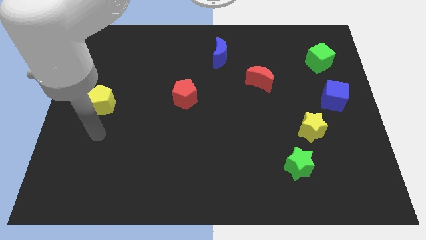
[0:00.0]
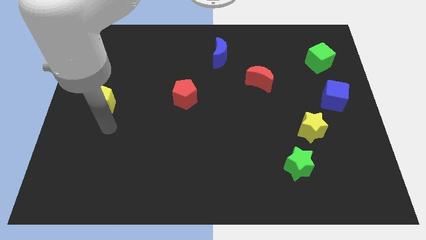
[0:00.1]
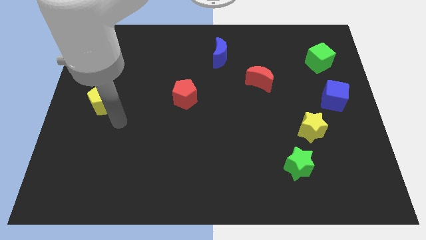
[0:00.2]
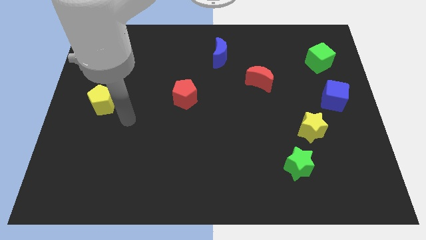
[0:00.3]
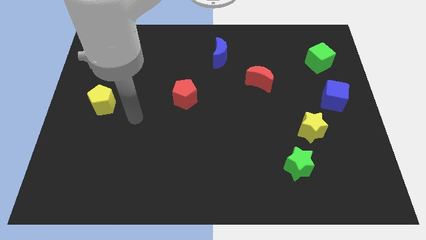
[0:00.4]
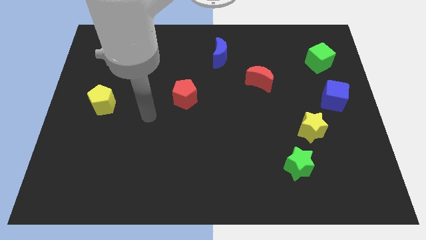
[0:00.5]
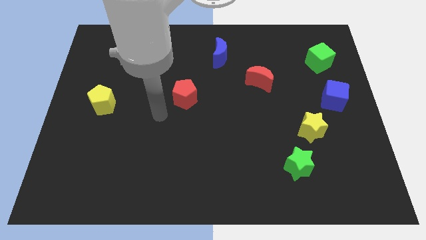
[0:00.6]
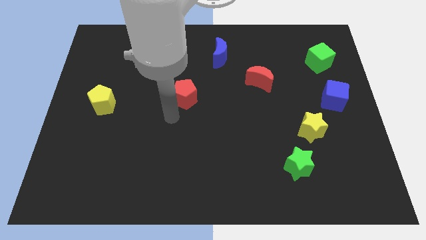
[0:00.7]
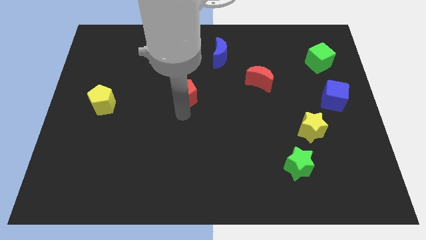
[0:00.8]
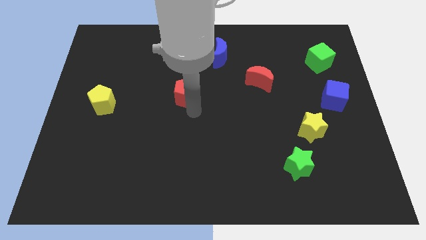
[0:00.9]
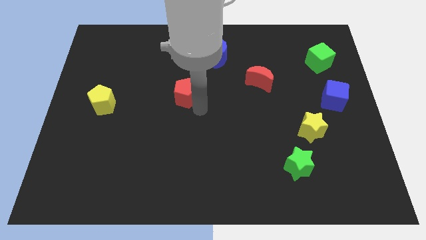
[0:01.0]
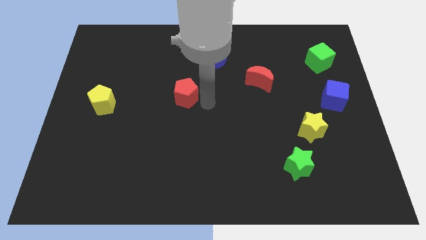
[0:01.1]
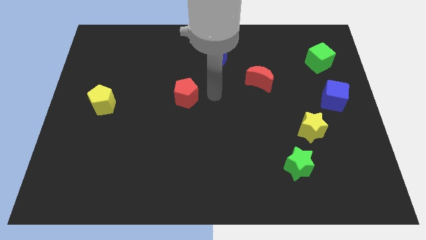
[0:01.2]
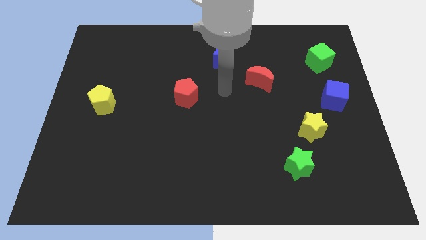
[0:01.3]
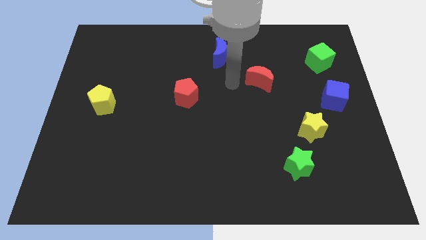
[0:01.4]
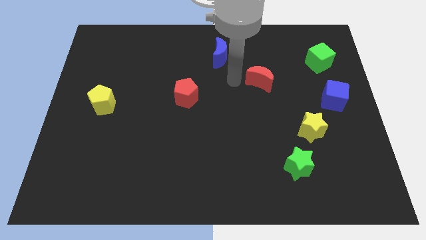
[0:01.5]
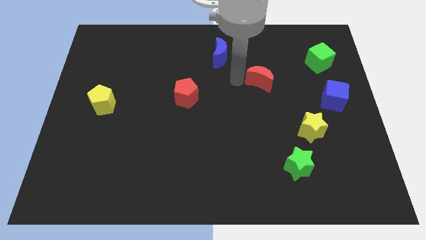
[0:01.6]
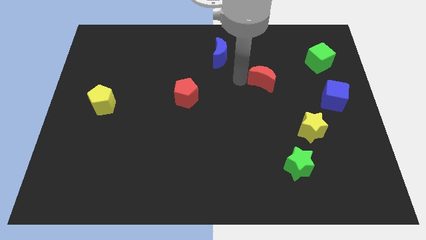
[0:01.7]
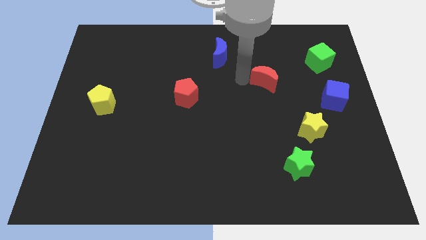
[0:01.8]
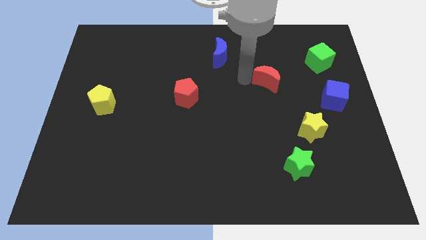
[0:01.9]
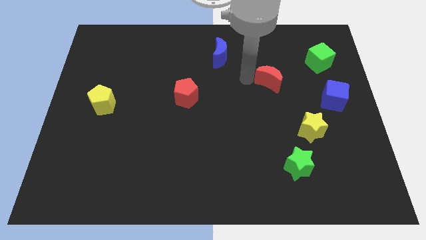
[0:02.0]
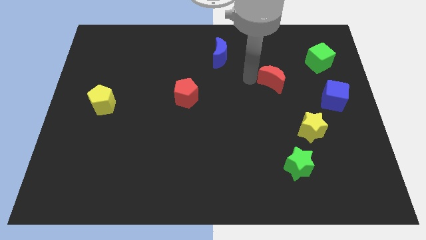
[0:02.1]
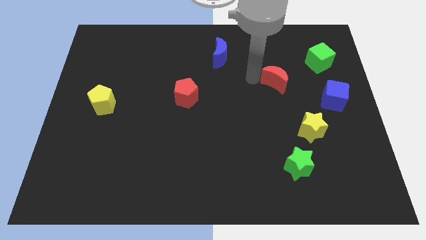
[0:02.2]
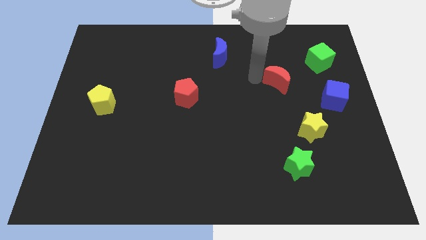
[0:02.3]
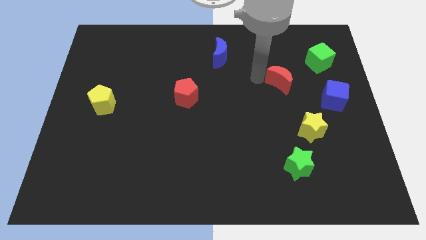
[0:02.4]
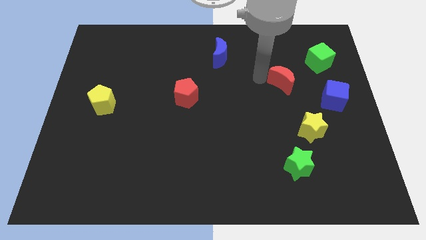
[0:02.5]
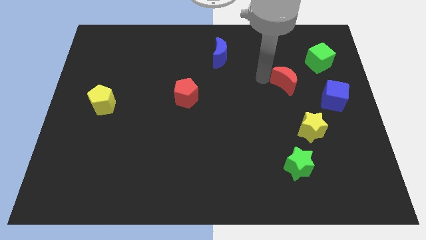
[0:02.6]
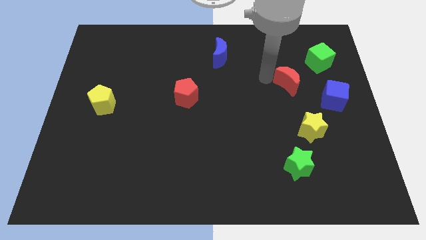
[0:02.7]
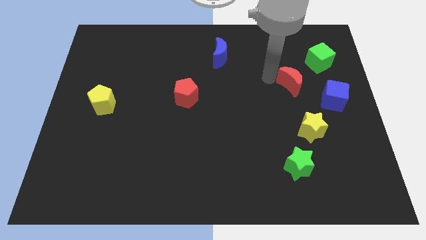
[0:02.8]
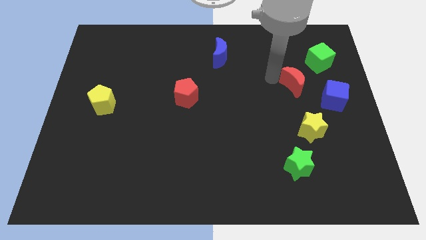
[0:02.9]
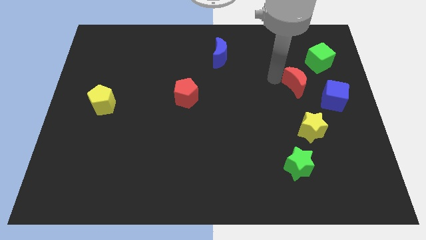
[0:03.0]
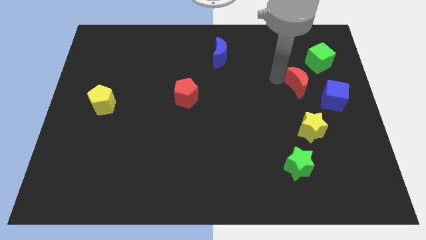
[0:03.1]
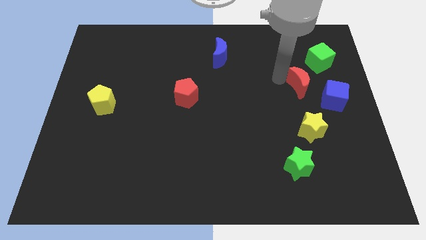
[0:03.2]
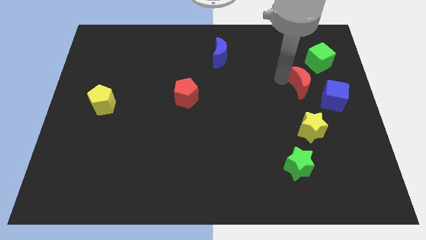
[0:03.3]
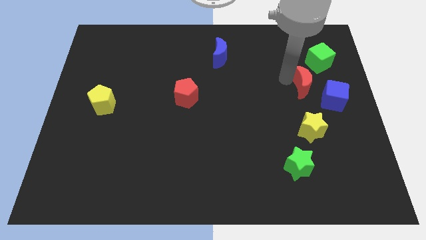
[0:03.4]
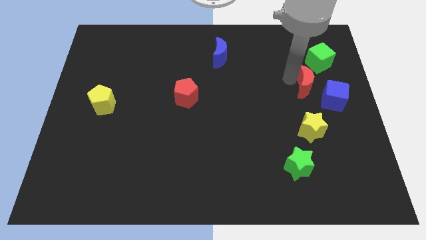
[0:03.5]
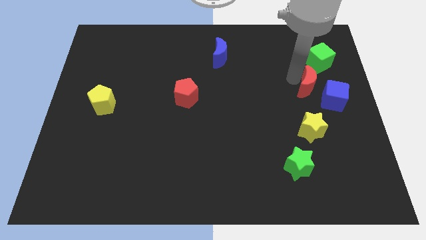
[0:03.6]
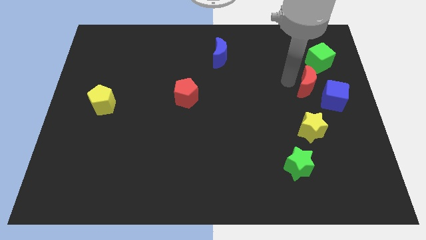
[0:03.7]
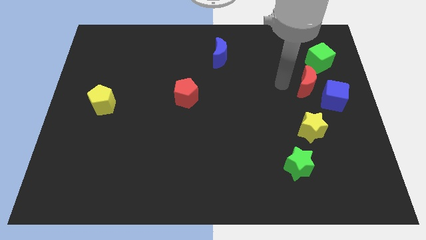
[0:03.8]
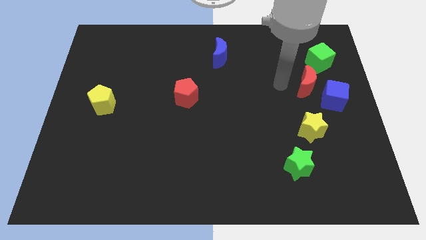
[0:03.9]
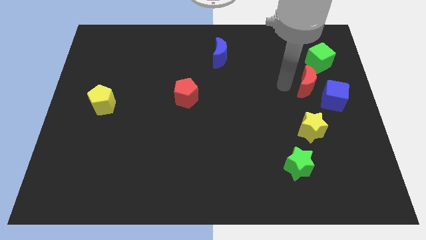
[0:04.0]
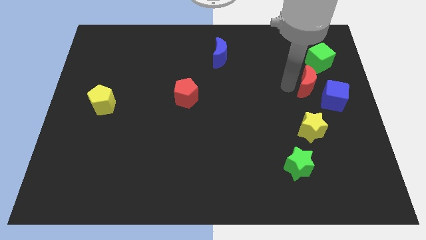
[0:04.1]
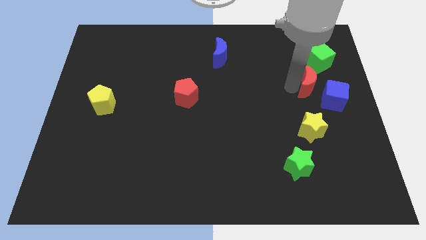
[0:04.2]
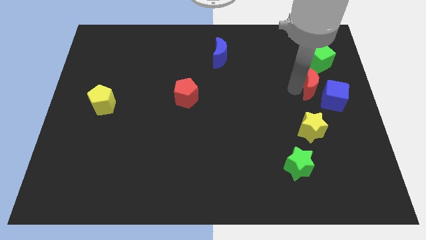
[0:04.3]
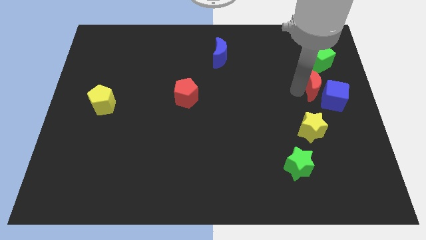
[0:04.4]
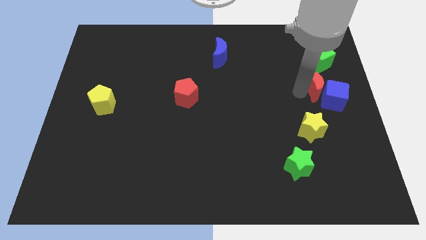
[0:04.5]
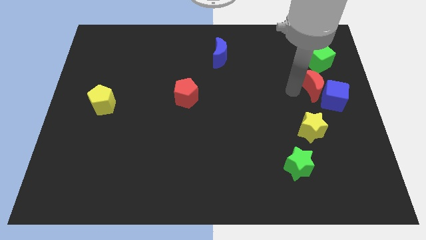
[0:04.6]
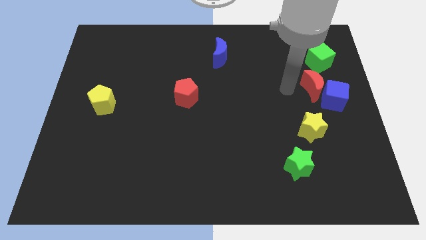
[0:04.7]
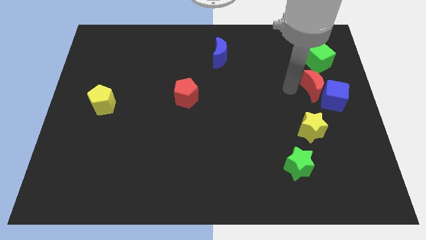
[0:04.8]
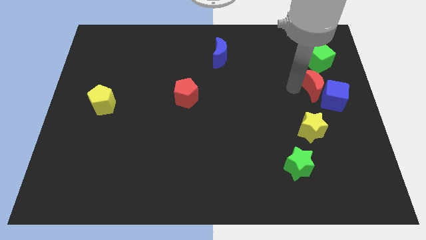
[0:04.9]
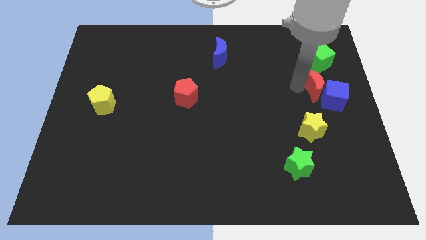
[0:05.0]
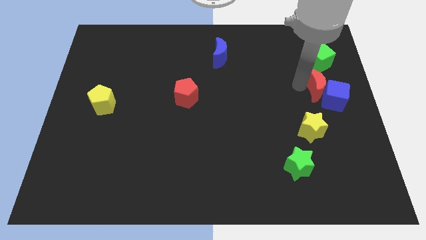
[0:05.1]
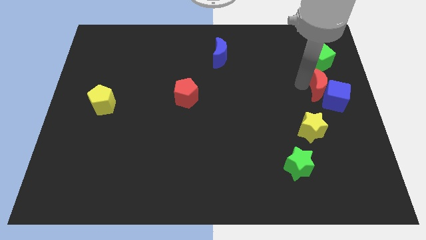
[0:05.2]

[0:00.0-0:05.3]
slide the red moon to the center right

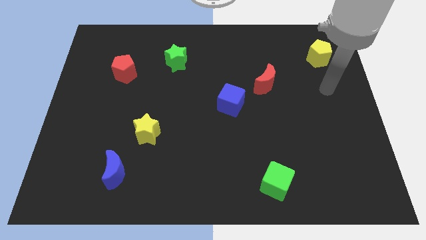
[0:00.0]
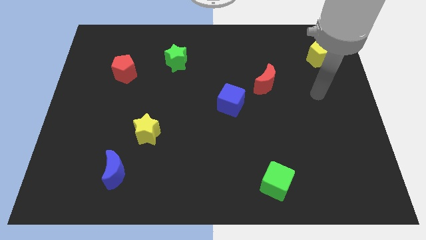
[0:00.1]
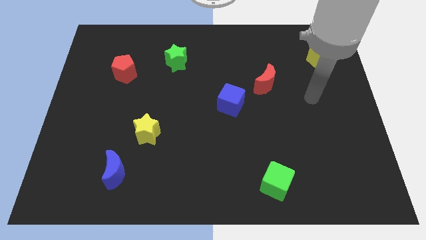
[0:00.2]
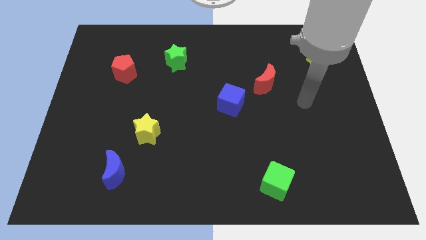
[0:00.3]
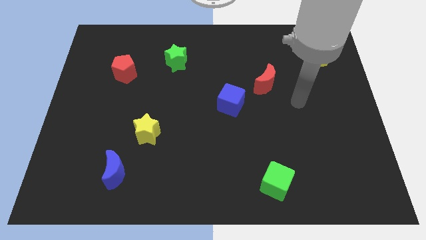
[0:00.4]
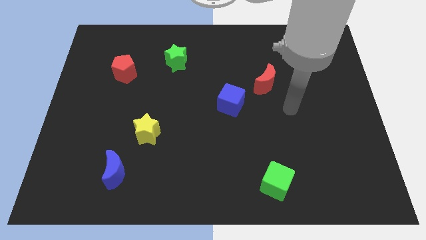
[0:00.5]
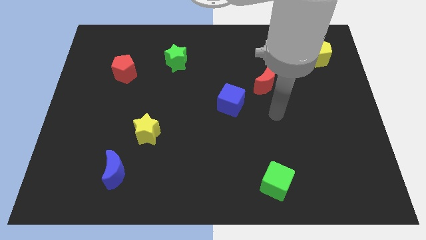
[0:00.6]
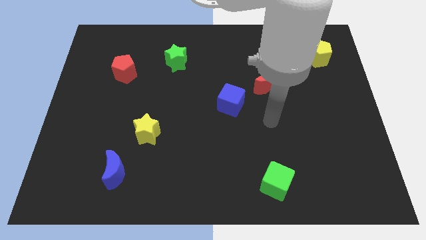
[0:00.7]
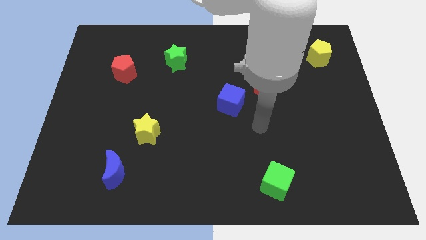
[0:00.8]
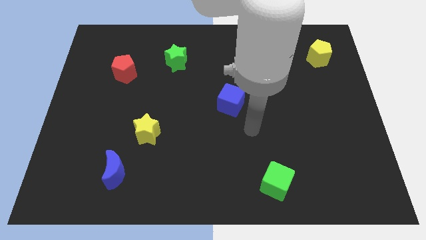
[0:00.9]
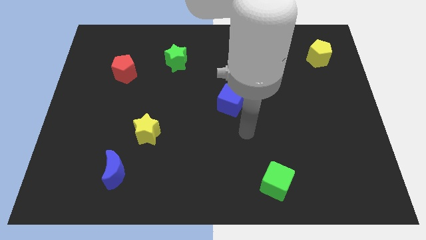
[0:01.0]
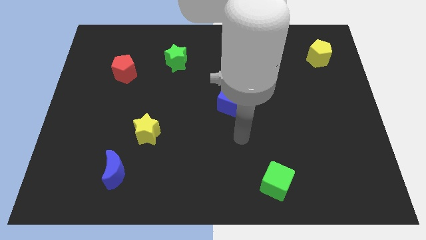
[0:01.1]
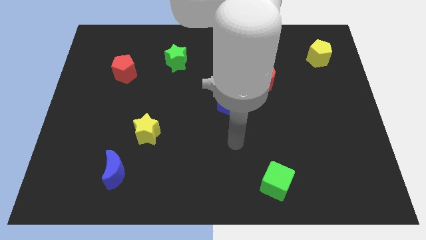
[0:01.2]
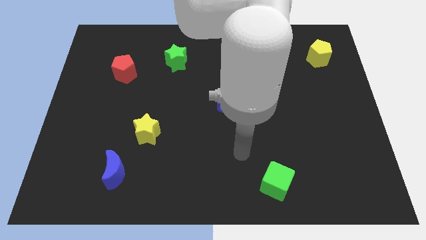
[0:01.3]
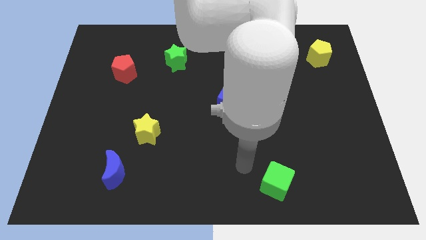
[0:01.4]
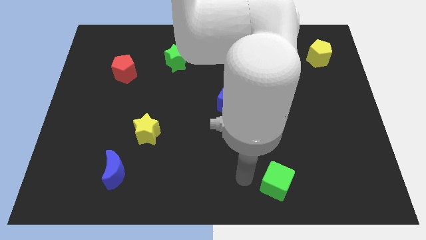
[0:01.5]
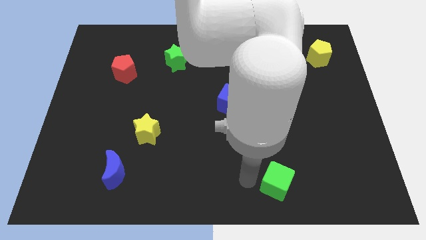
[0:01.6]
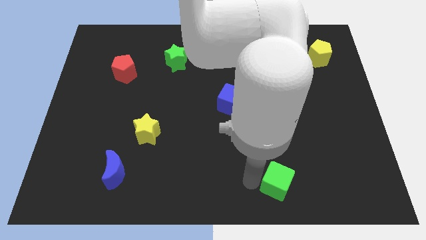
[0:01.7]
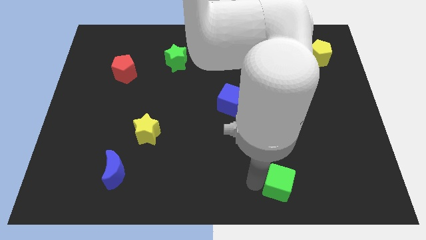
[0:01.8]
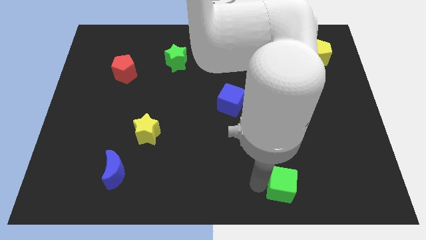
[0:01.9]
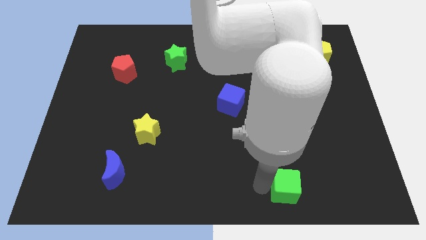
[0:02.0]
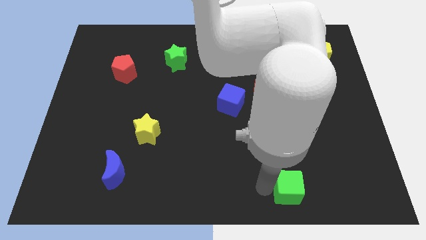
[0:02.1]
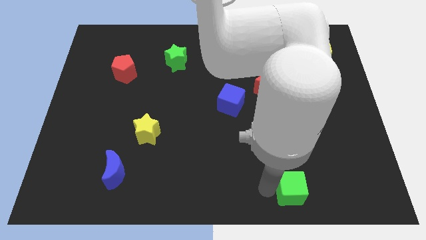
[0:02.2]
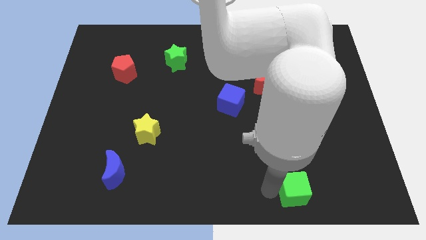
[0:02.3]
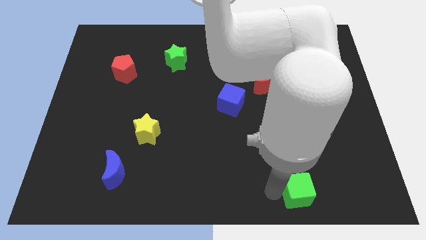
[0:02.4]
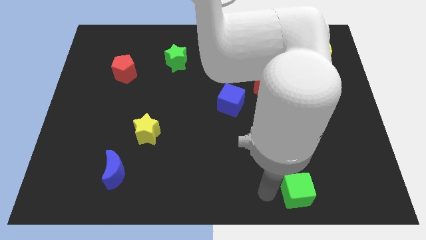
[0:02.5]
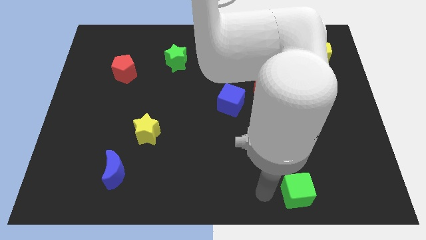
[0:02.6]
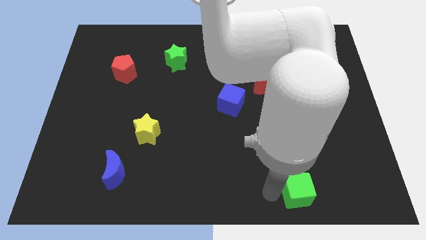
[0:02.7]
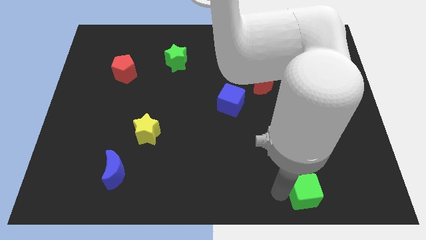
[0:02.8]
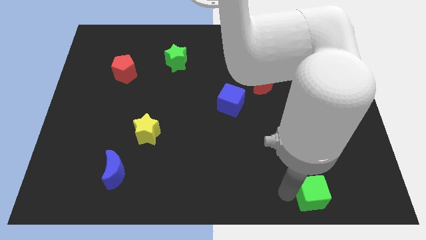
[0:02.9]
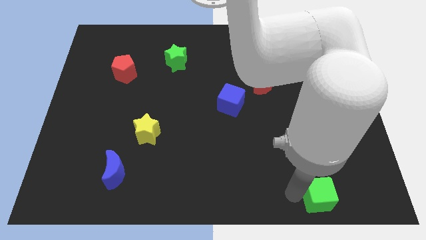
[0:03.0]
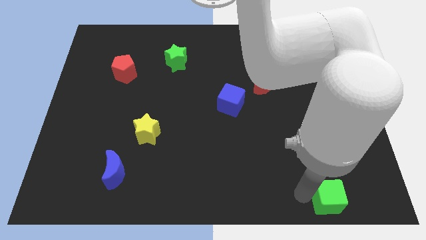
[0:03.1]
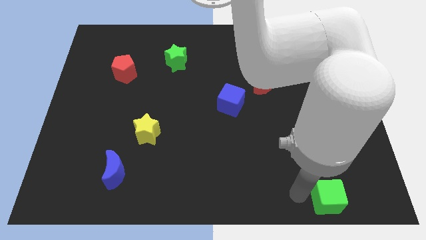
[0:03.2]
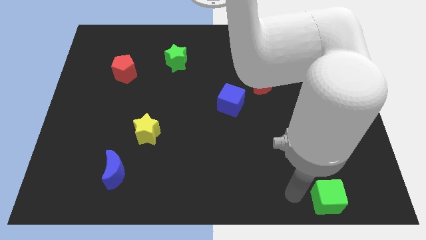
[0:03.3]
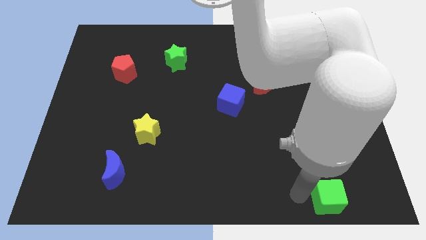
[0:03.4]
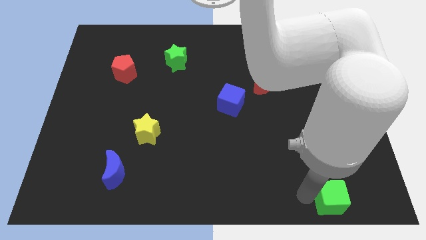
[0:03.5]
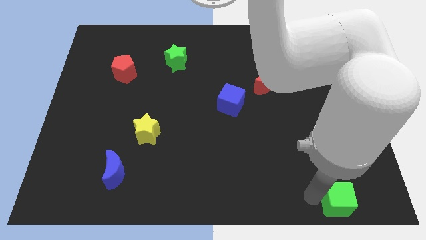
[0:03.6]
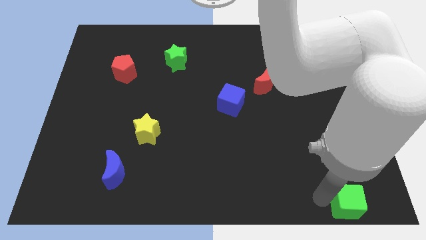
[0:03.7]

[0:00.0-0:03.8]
slide the green cube to the bottom right
